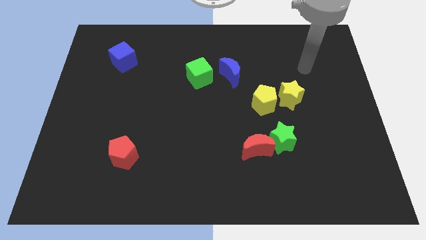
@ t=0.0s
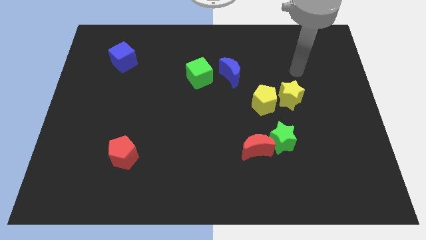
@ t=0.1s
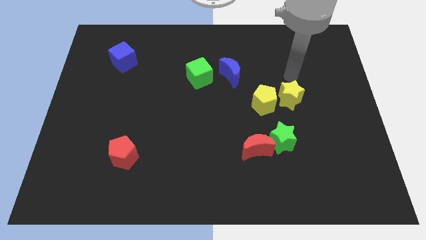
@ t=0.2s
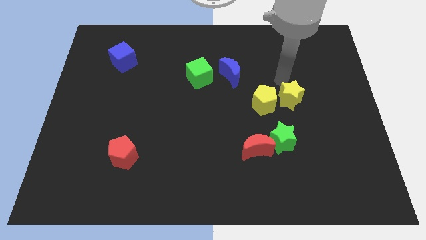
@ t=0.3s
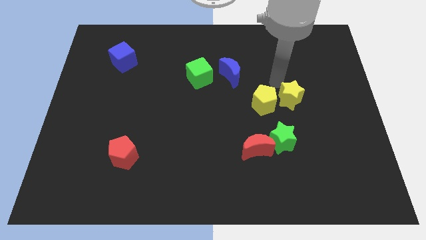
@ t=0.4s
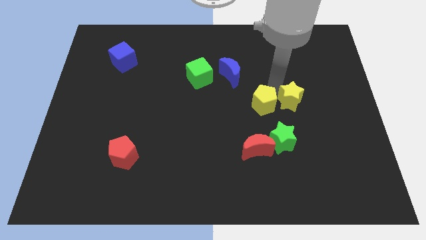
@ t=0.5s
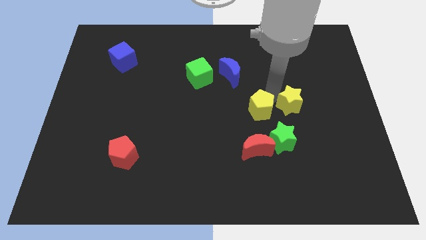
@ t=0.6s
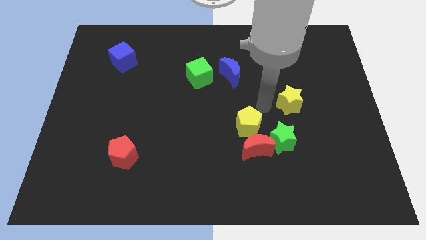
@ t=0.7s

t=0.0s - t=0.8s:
separate the yellow star from the yellow pentagon

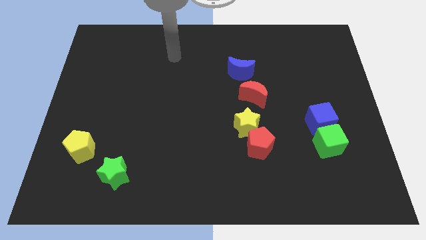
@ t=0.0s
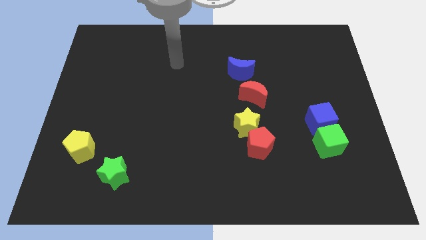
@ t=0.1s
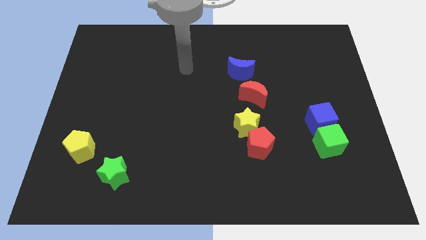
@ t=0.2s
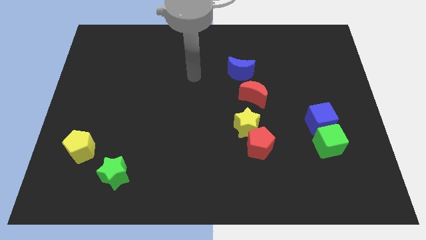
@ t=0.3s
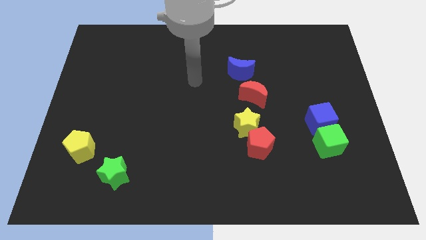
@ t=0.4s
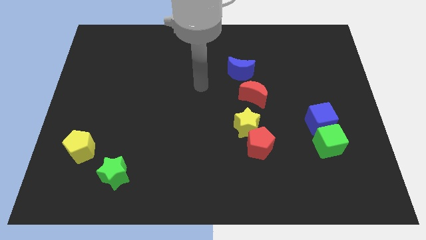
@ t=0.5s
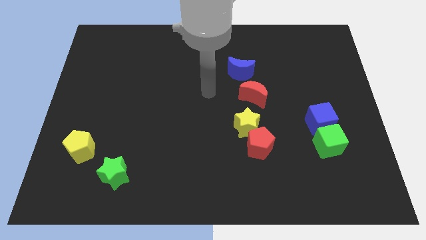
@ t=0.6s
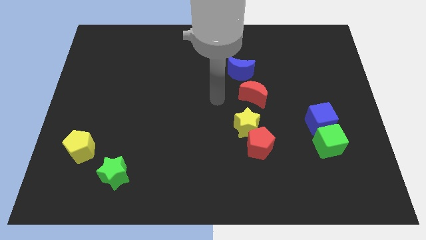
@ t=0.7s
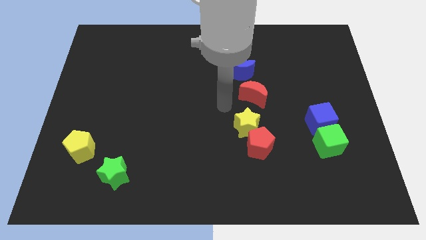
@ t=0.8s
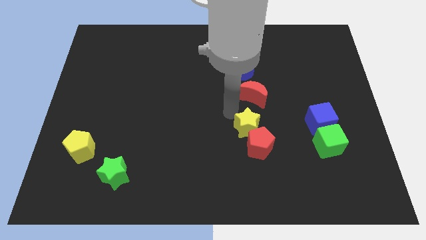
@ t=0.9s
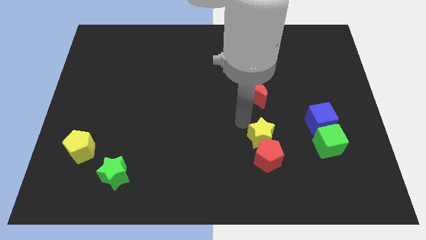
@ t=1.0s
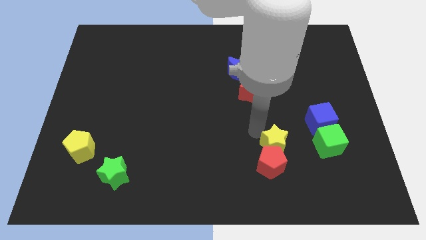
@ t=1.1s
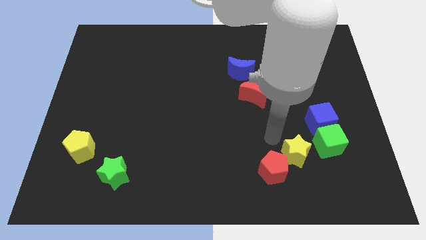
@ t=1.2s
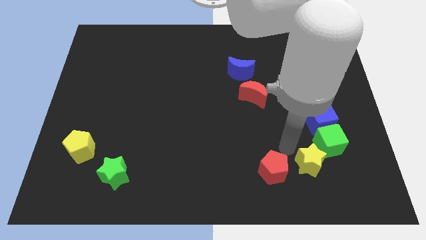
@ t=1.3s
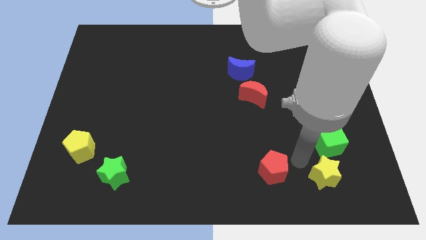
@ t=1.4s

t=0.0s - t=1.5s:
pull the red pentagon apart from the yellow star

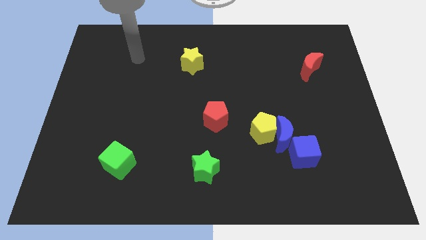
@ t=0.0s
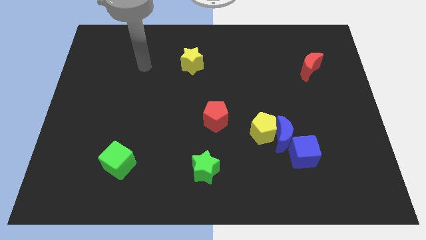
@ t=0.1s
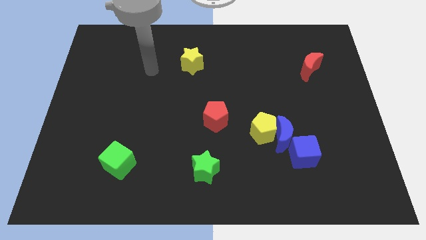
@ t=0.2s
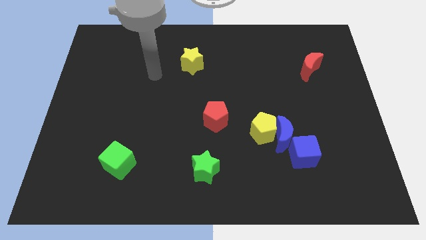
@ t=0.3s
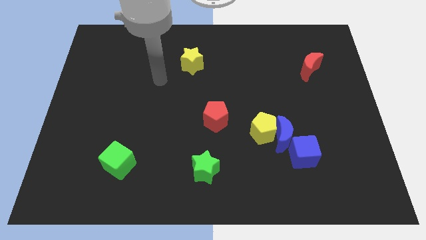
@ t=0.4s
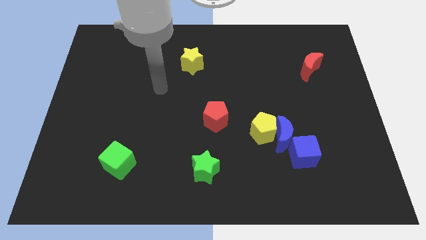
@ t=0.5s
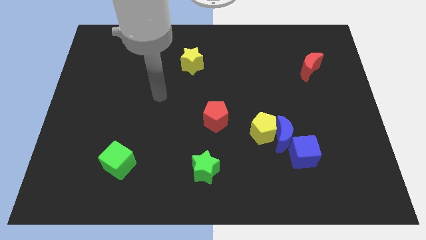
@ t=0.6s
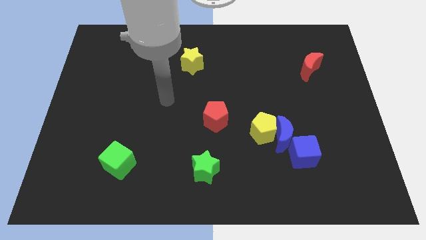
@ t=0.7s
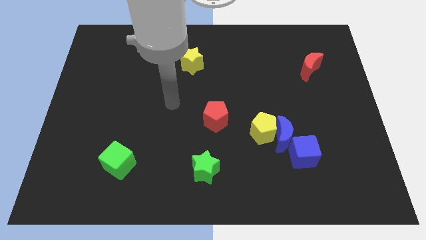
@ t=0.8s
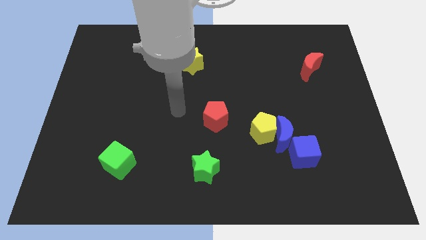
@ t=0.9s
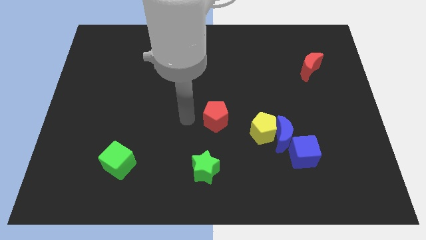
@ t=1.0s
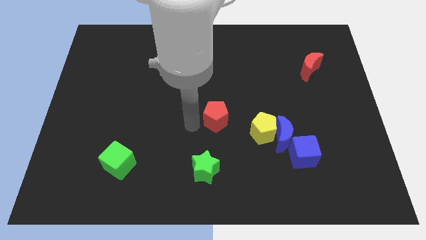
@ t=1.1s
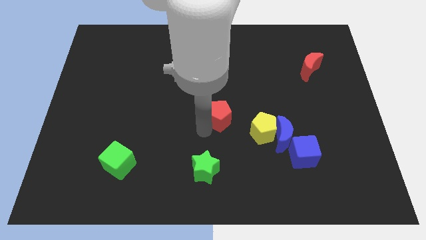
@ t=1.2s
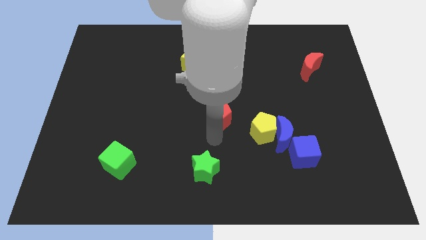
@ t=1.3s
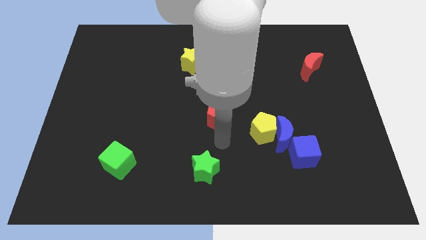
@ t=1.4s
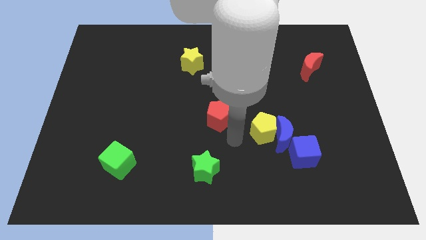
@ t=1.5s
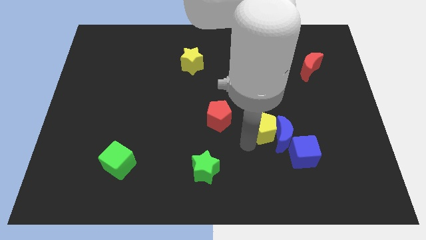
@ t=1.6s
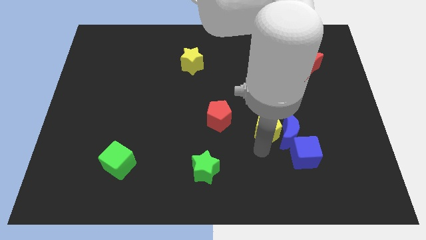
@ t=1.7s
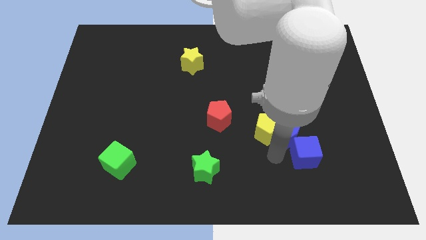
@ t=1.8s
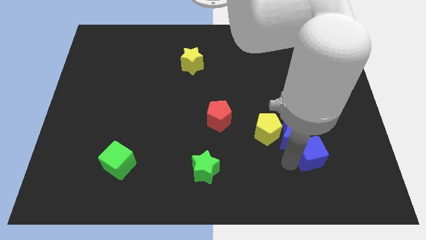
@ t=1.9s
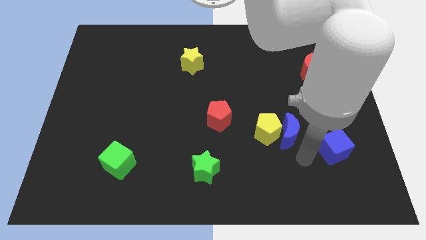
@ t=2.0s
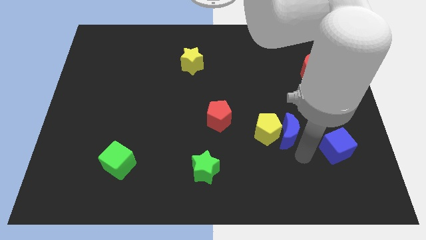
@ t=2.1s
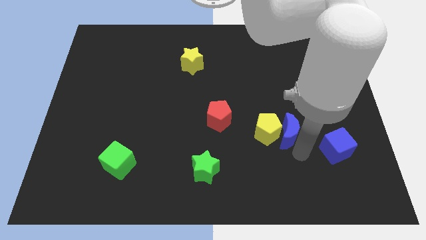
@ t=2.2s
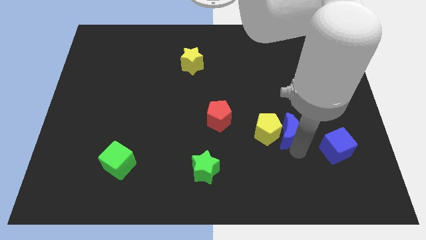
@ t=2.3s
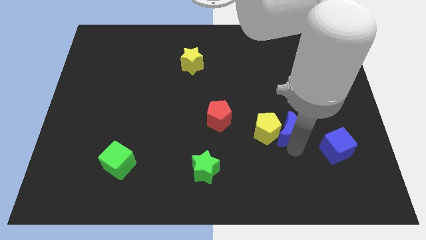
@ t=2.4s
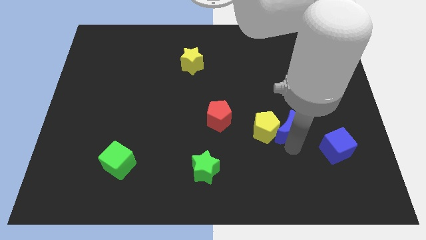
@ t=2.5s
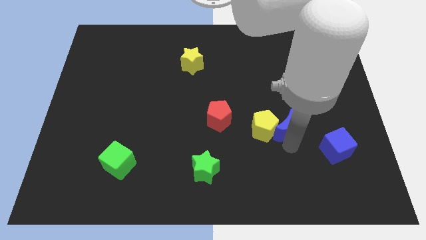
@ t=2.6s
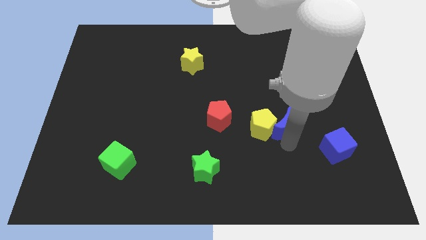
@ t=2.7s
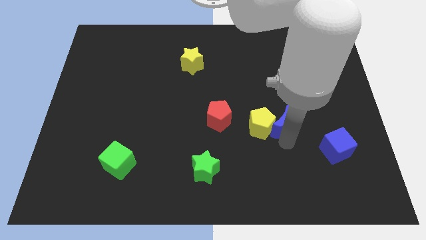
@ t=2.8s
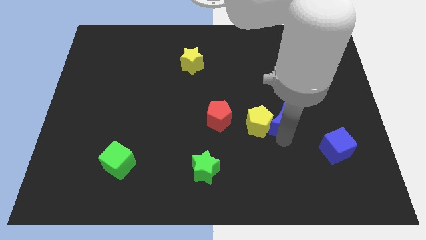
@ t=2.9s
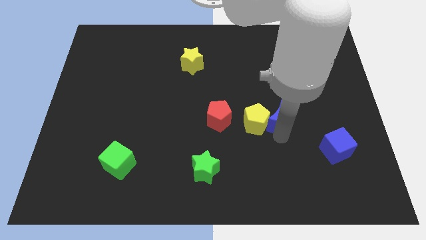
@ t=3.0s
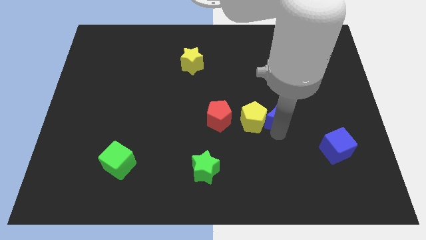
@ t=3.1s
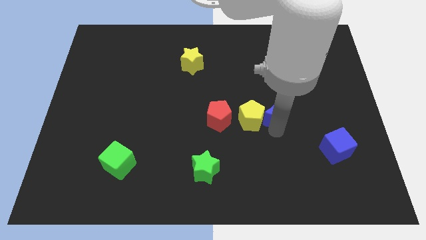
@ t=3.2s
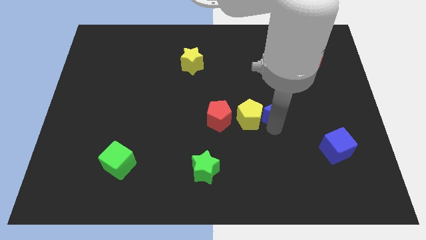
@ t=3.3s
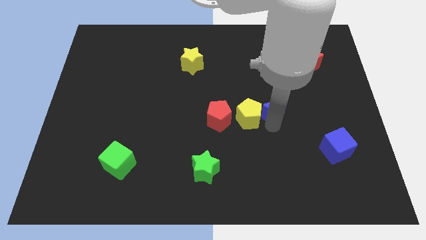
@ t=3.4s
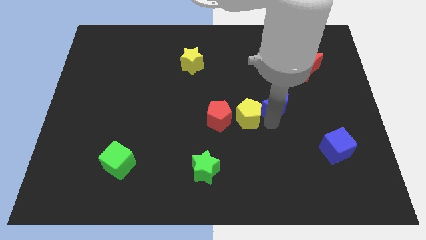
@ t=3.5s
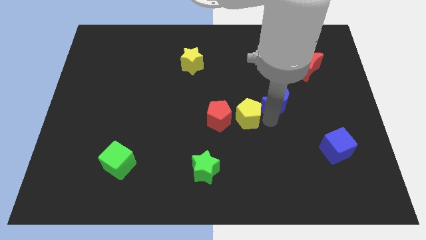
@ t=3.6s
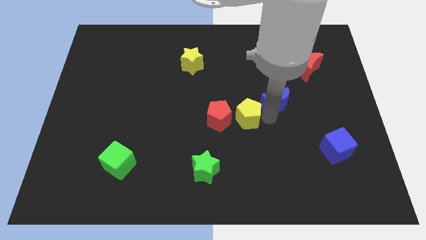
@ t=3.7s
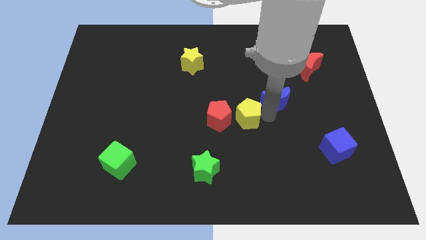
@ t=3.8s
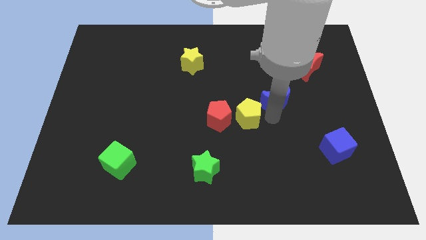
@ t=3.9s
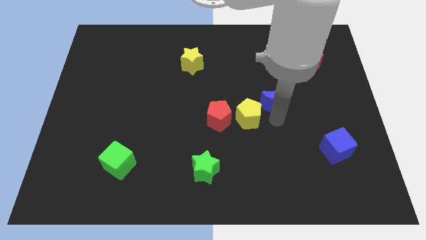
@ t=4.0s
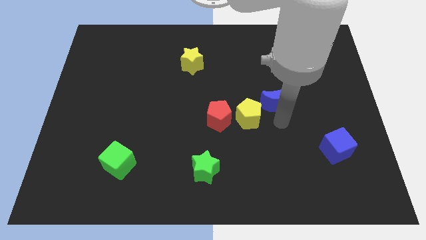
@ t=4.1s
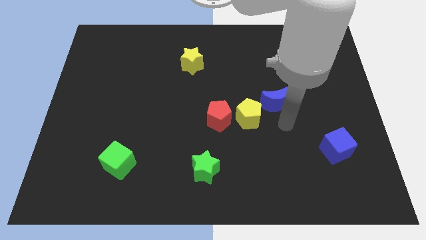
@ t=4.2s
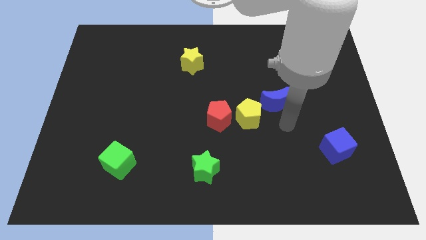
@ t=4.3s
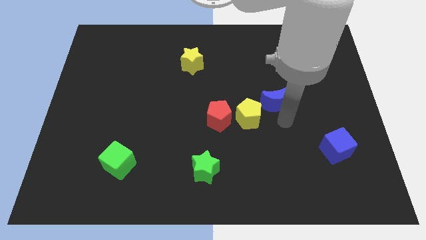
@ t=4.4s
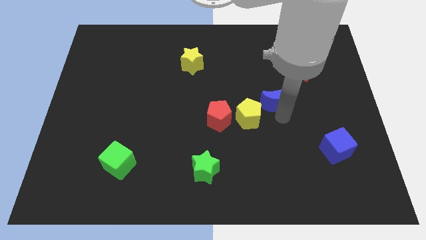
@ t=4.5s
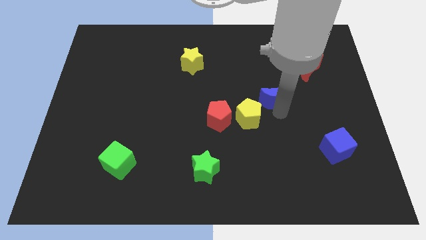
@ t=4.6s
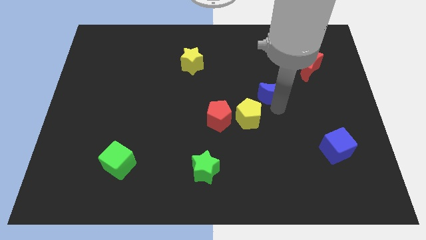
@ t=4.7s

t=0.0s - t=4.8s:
move the blue moon away from the yellow pentagon and blue cube

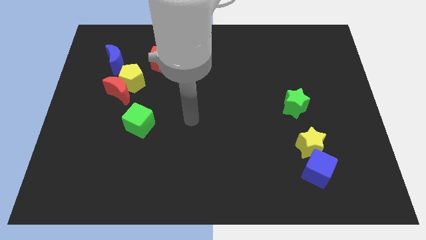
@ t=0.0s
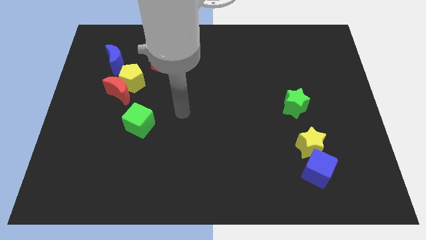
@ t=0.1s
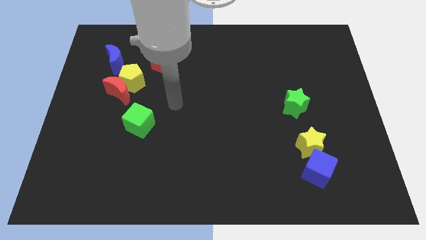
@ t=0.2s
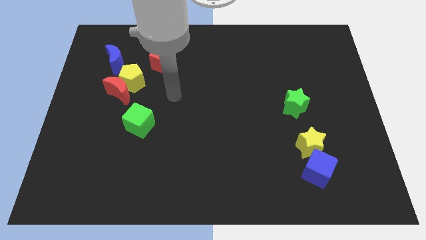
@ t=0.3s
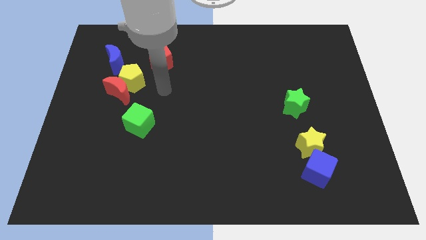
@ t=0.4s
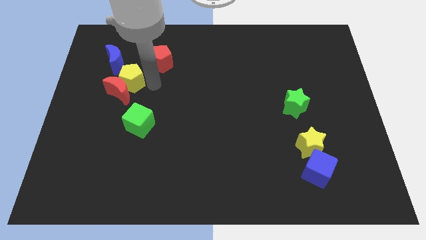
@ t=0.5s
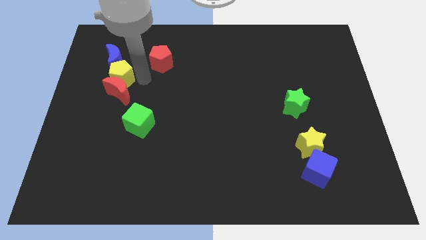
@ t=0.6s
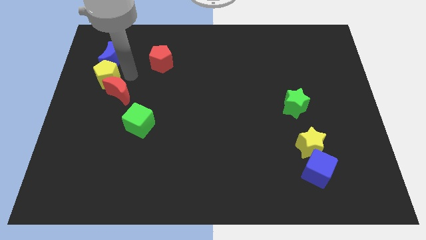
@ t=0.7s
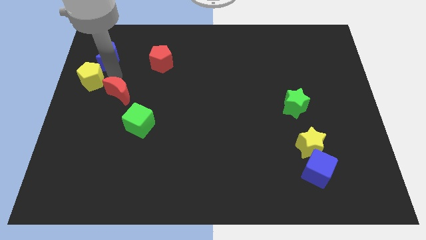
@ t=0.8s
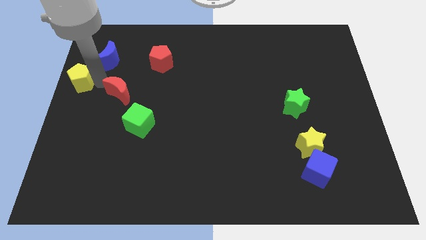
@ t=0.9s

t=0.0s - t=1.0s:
separate the red moon from the yellow pentagon

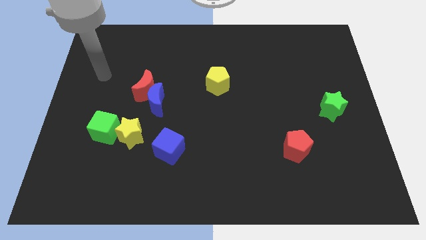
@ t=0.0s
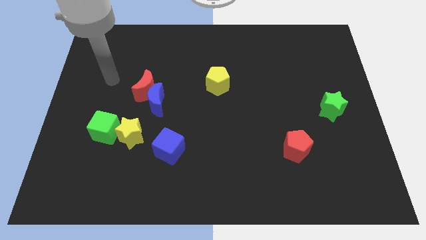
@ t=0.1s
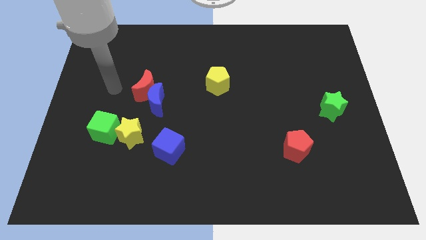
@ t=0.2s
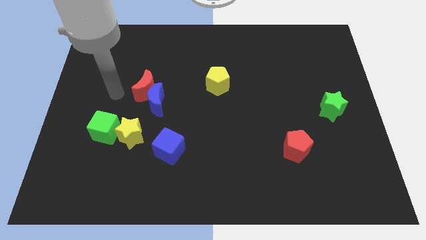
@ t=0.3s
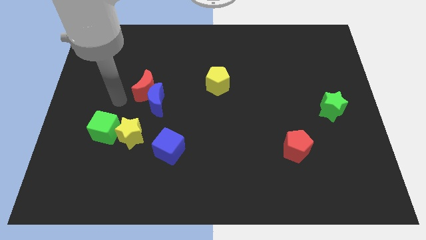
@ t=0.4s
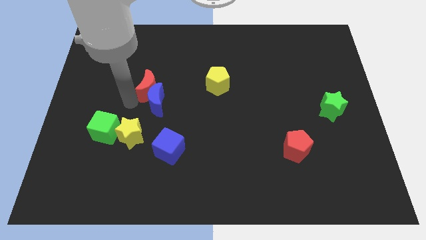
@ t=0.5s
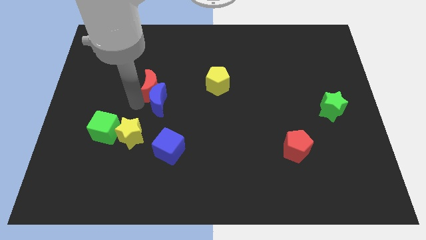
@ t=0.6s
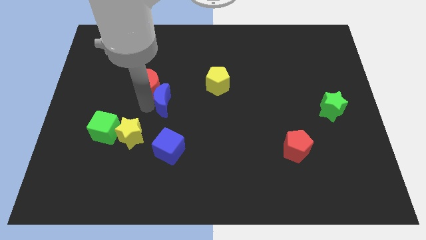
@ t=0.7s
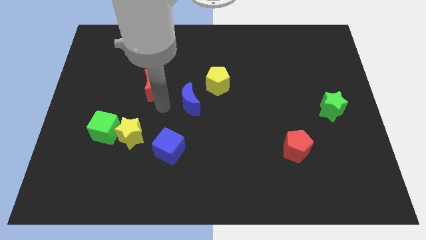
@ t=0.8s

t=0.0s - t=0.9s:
separate the red moon from the blue moon

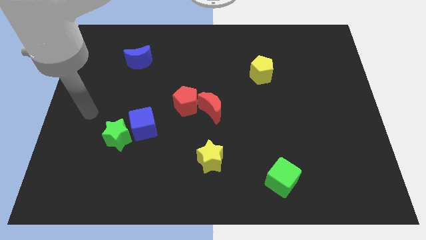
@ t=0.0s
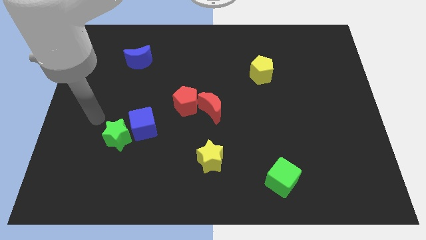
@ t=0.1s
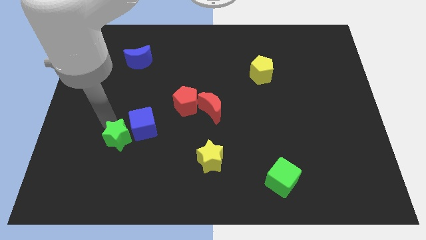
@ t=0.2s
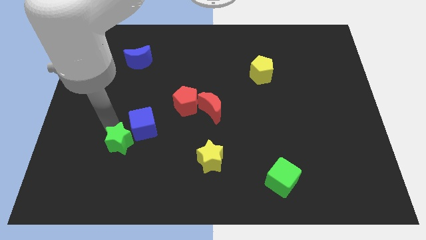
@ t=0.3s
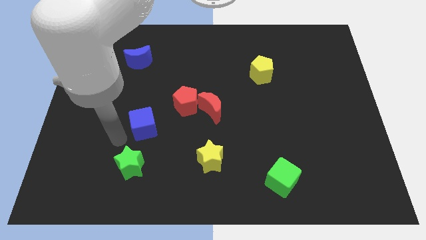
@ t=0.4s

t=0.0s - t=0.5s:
move the blue cube away from the green star
